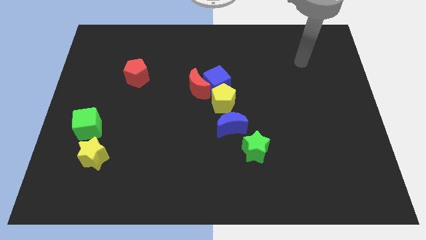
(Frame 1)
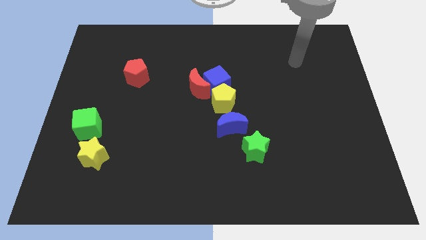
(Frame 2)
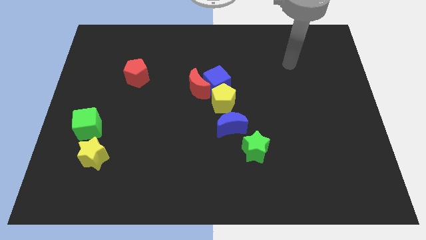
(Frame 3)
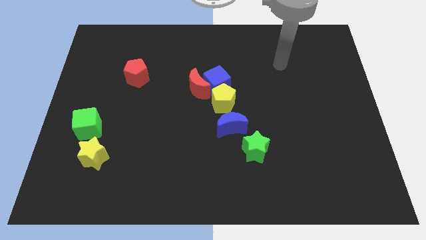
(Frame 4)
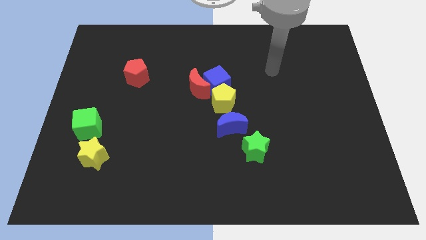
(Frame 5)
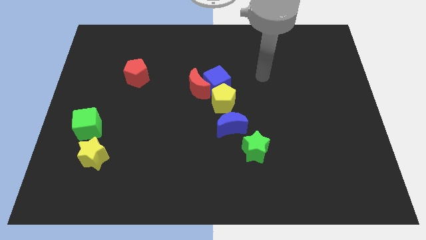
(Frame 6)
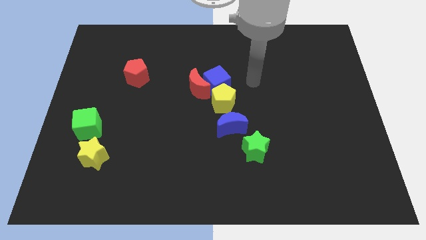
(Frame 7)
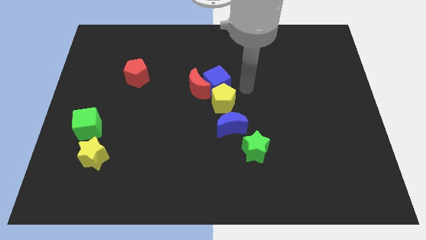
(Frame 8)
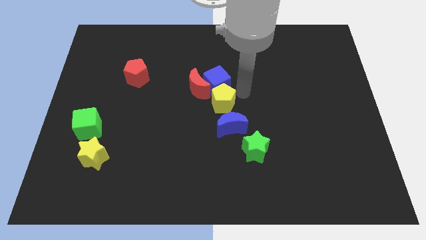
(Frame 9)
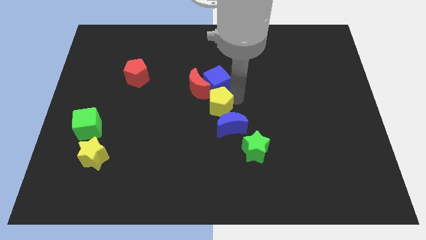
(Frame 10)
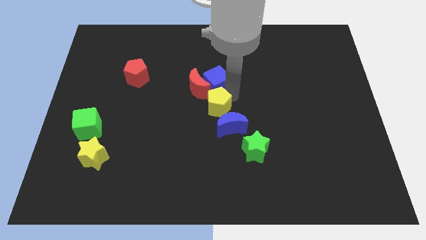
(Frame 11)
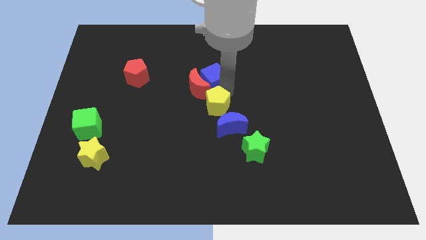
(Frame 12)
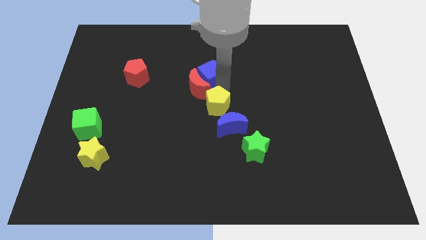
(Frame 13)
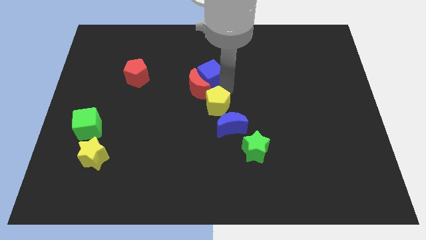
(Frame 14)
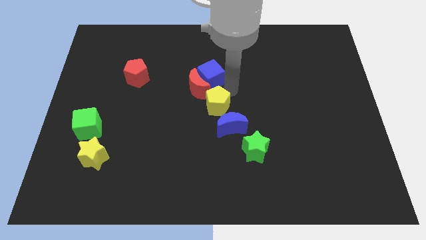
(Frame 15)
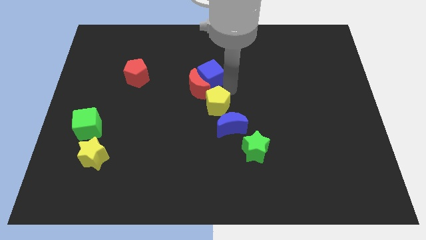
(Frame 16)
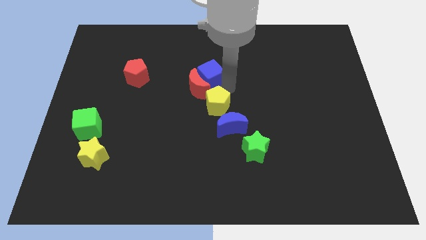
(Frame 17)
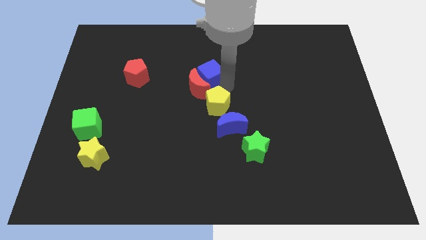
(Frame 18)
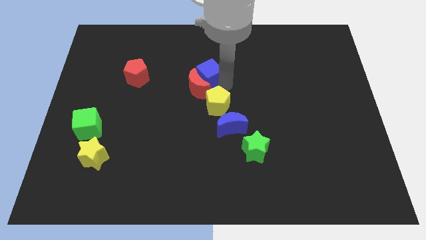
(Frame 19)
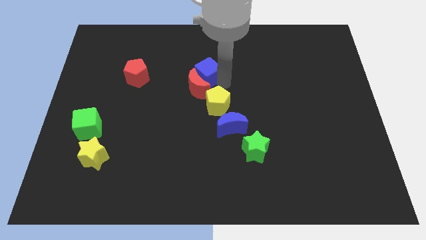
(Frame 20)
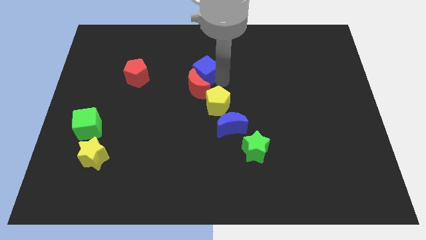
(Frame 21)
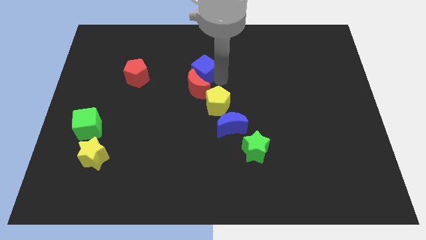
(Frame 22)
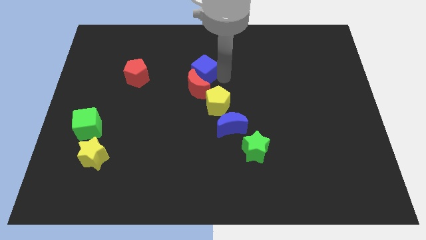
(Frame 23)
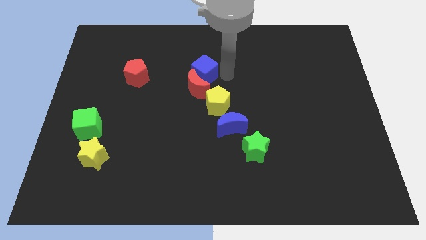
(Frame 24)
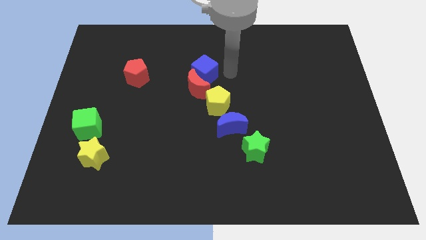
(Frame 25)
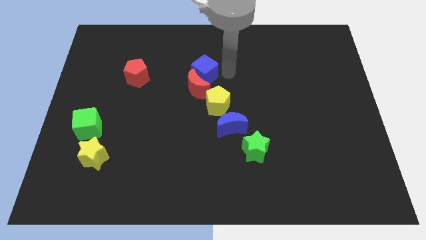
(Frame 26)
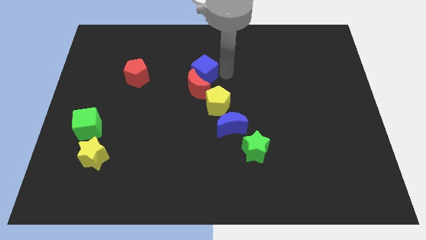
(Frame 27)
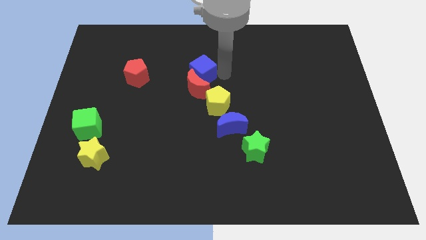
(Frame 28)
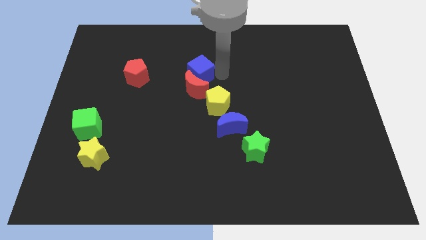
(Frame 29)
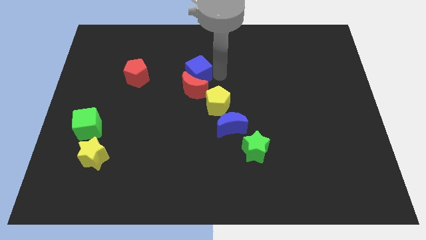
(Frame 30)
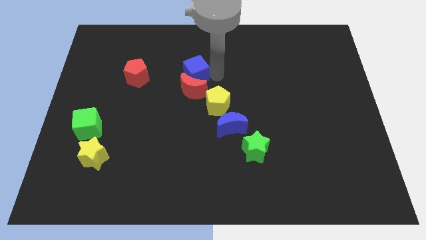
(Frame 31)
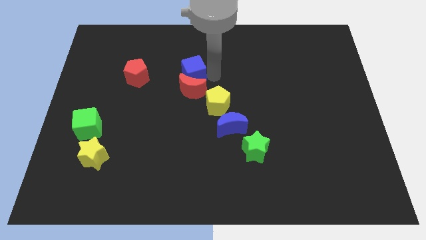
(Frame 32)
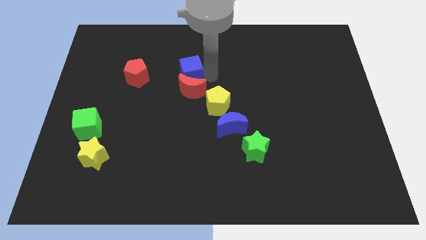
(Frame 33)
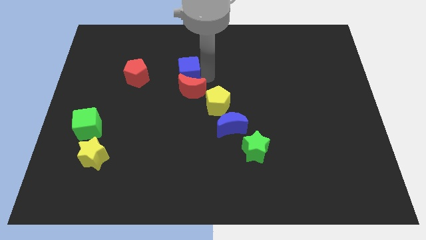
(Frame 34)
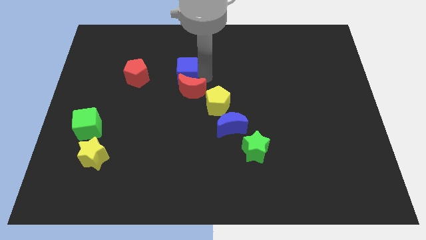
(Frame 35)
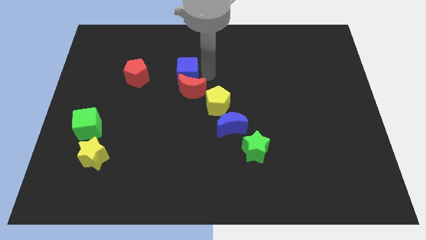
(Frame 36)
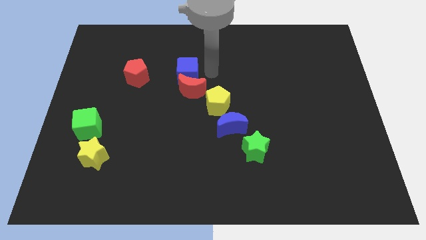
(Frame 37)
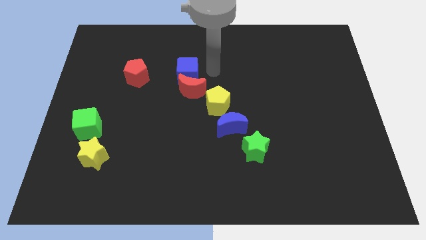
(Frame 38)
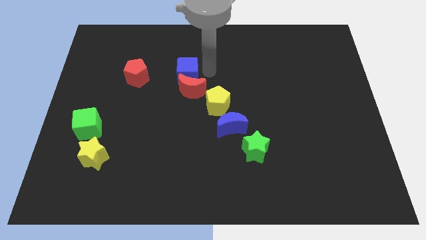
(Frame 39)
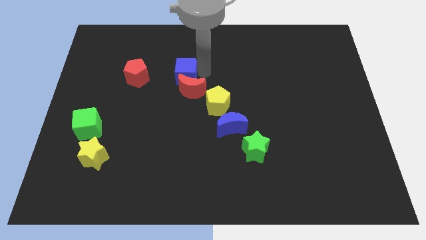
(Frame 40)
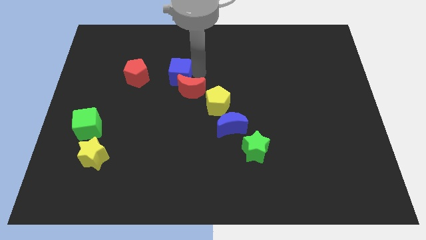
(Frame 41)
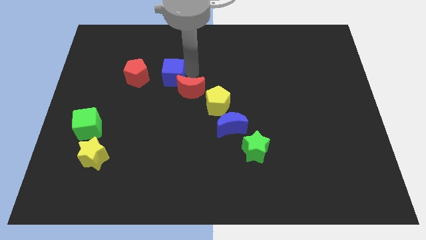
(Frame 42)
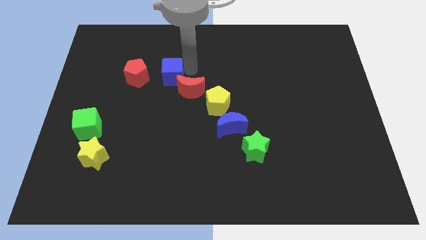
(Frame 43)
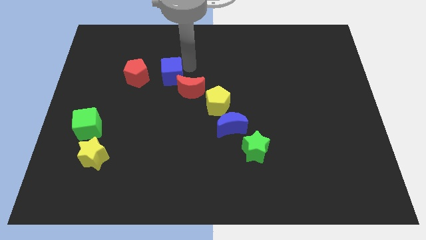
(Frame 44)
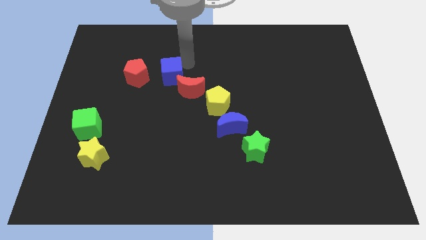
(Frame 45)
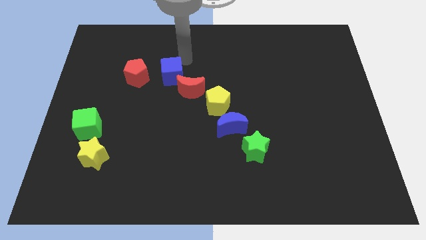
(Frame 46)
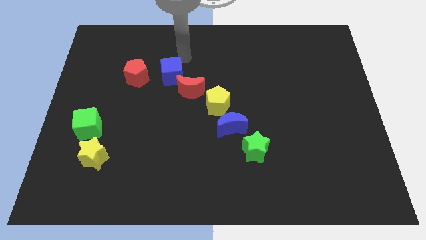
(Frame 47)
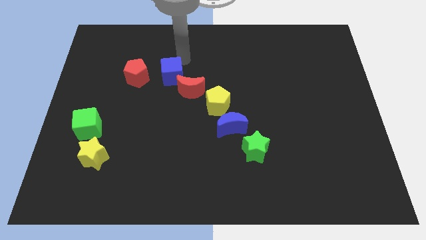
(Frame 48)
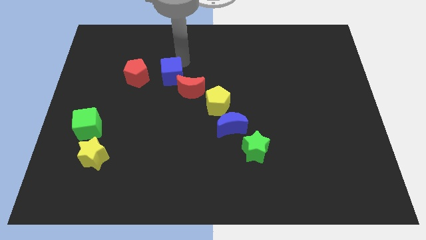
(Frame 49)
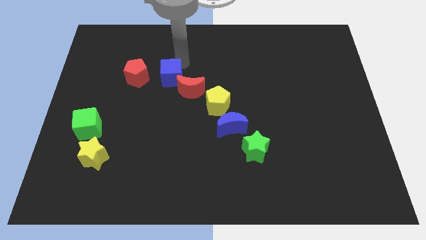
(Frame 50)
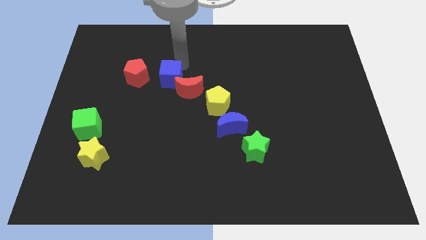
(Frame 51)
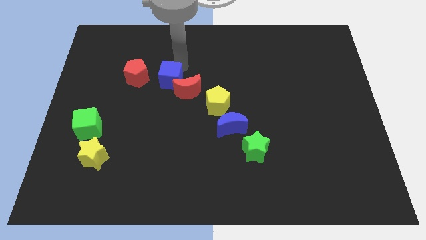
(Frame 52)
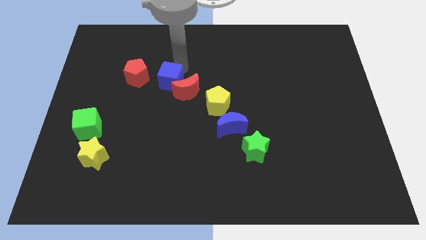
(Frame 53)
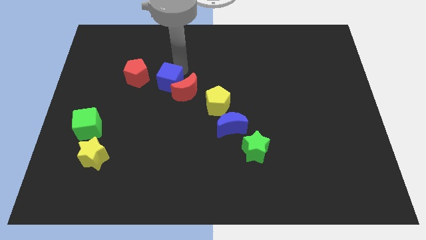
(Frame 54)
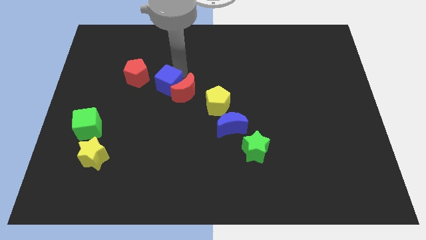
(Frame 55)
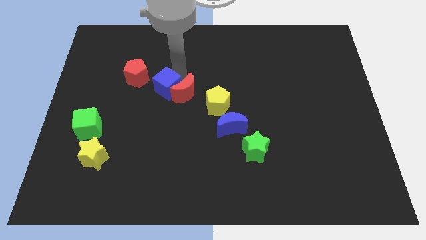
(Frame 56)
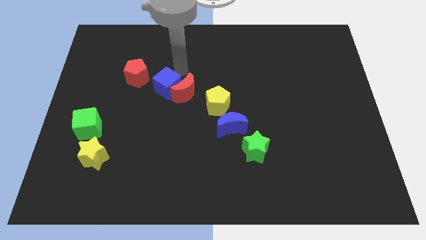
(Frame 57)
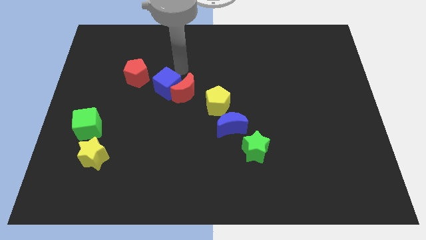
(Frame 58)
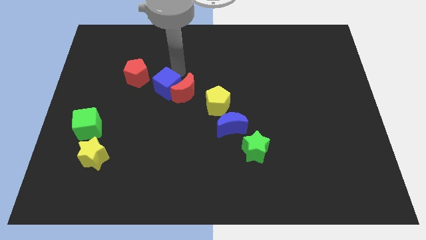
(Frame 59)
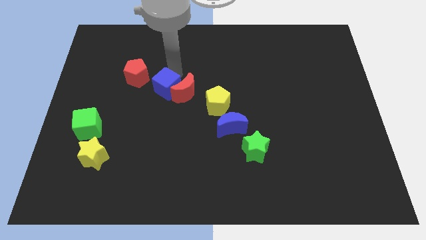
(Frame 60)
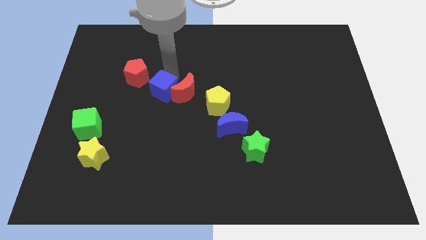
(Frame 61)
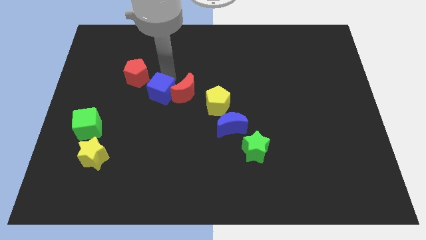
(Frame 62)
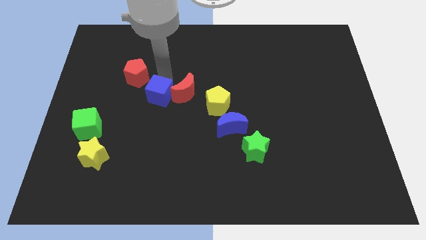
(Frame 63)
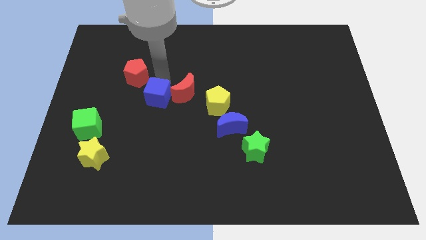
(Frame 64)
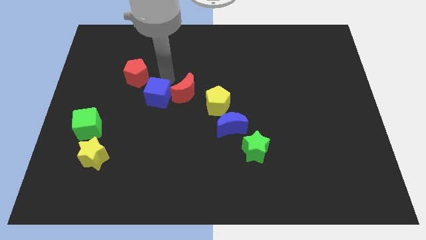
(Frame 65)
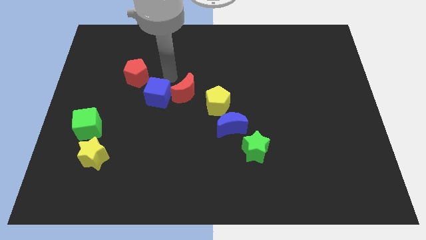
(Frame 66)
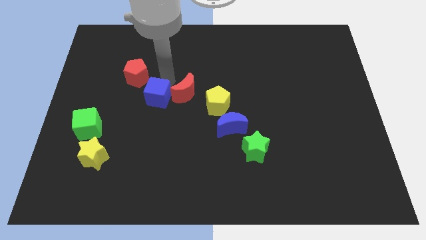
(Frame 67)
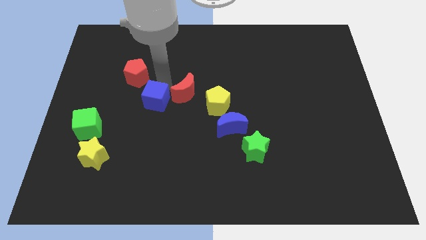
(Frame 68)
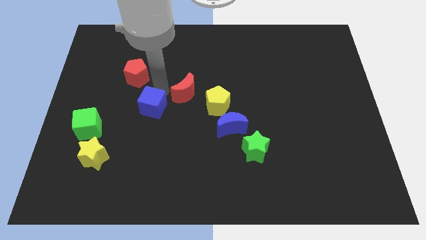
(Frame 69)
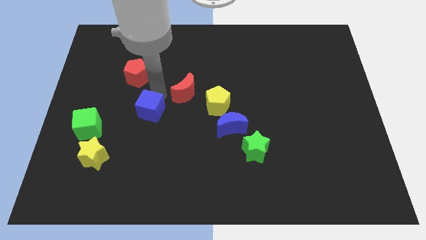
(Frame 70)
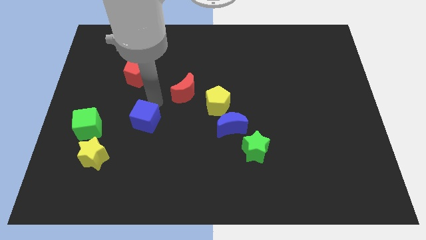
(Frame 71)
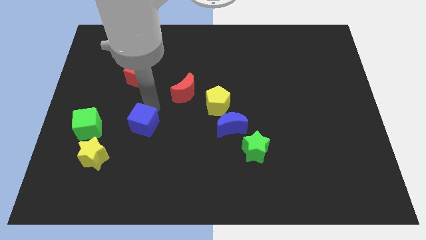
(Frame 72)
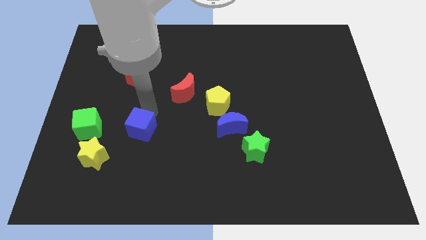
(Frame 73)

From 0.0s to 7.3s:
move the blue cube down and then left

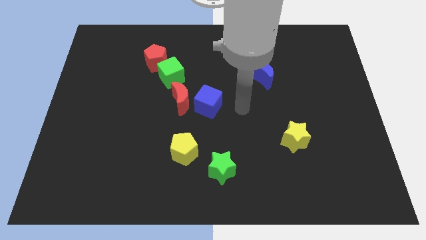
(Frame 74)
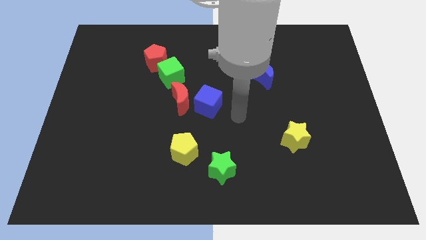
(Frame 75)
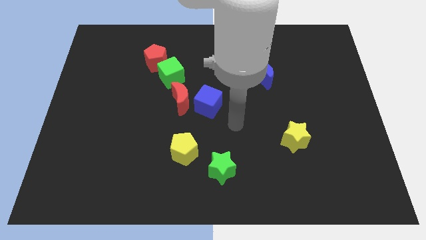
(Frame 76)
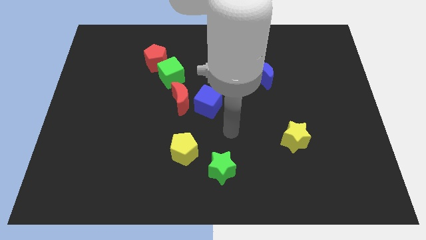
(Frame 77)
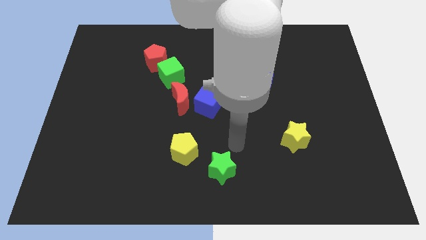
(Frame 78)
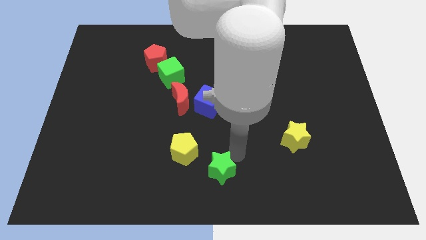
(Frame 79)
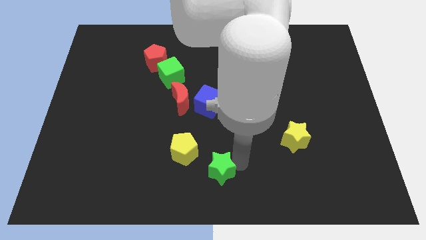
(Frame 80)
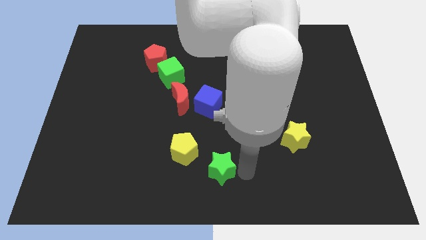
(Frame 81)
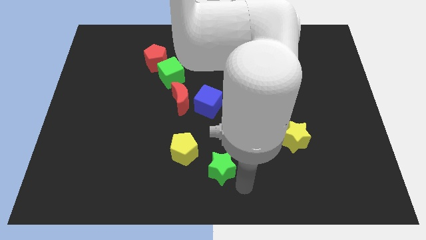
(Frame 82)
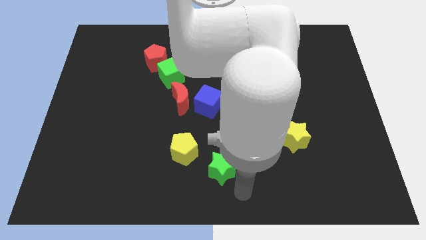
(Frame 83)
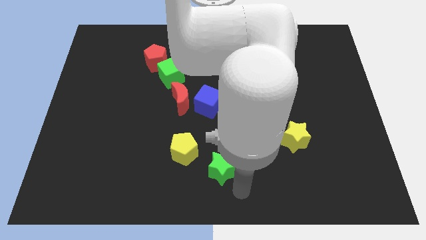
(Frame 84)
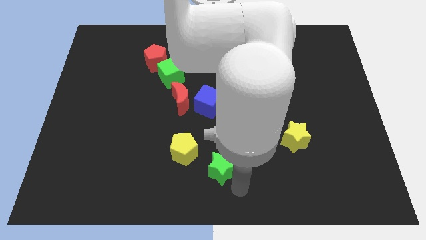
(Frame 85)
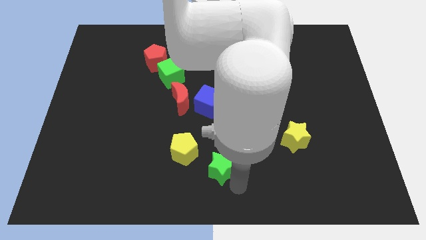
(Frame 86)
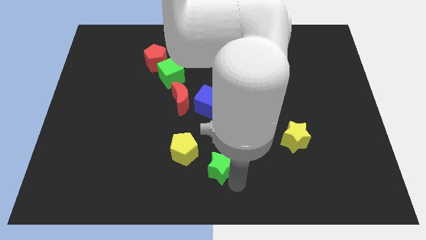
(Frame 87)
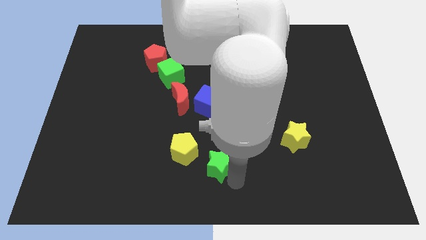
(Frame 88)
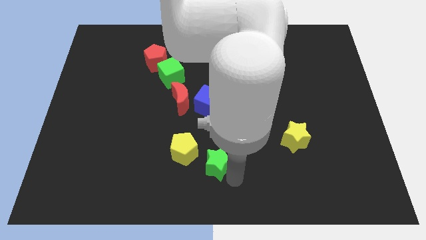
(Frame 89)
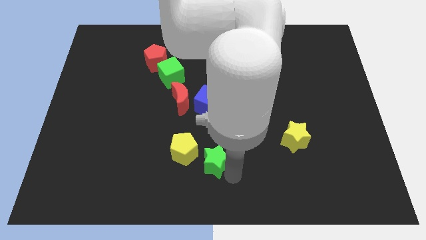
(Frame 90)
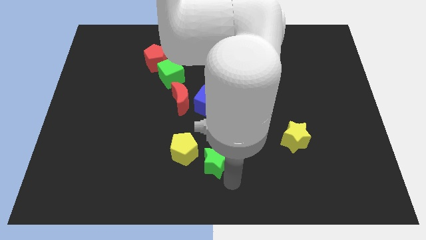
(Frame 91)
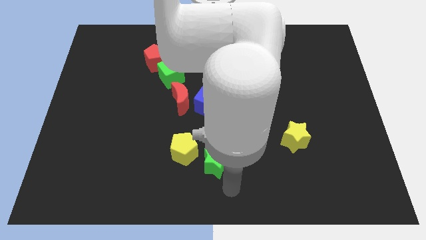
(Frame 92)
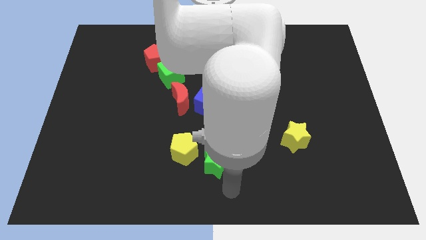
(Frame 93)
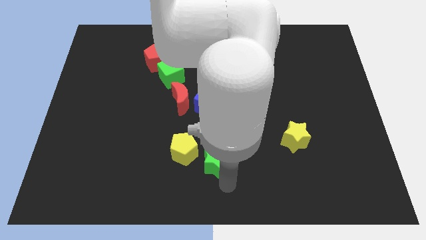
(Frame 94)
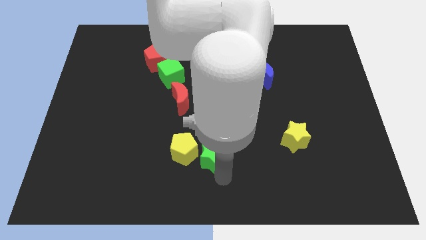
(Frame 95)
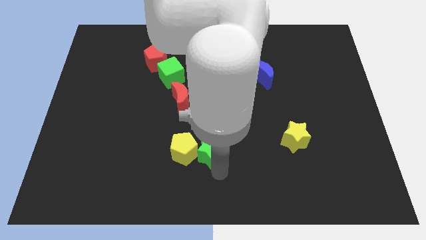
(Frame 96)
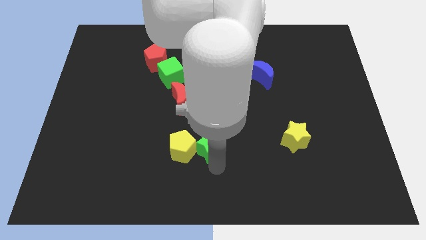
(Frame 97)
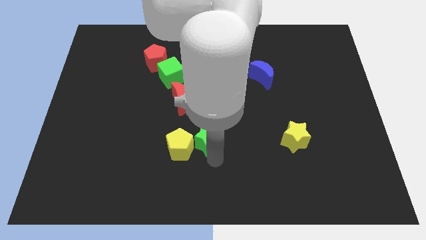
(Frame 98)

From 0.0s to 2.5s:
move the green star a bit up and then to the left
